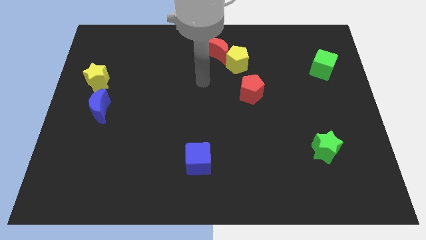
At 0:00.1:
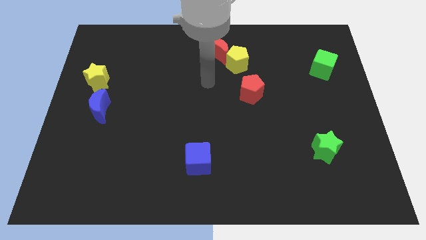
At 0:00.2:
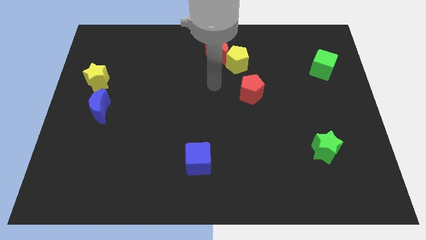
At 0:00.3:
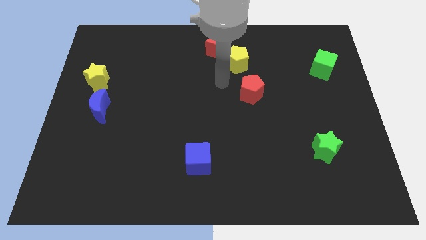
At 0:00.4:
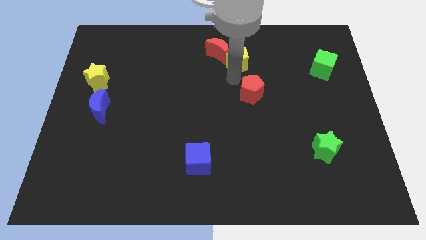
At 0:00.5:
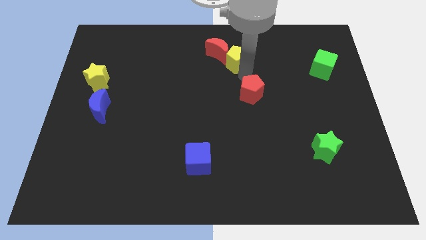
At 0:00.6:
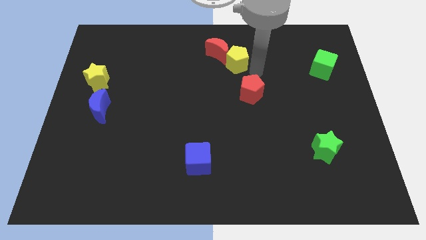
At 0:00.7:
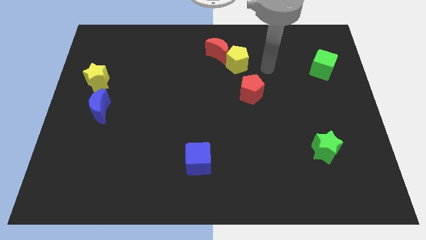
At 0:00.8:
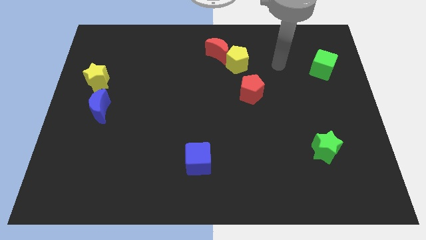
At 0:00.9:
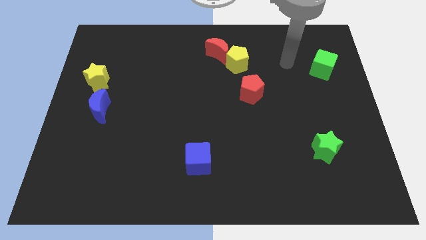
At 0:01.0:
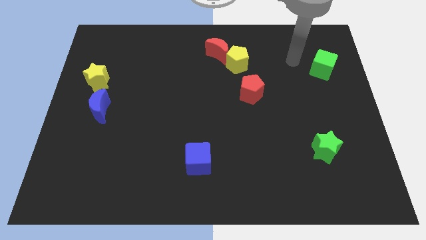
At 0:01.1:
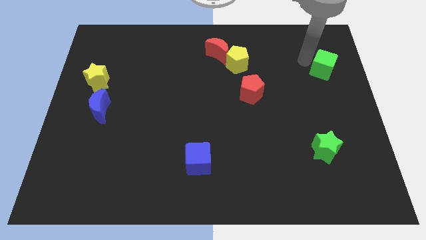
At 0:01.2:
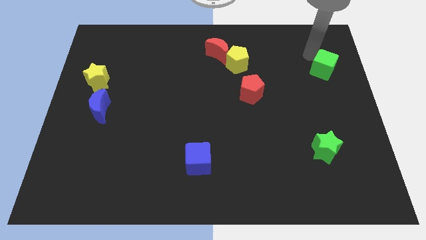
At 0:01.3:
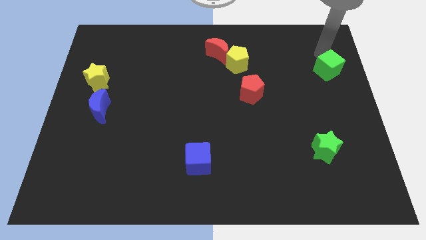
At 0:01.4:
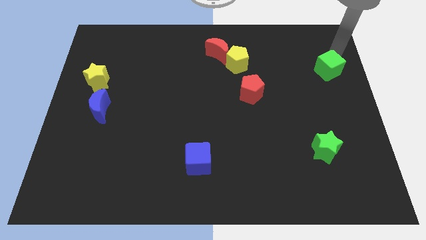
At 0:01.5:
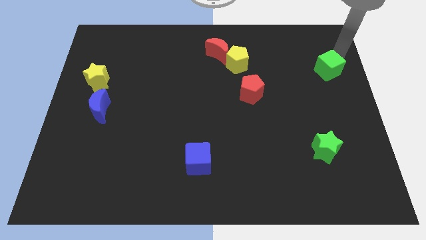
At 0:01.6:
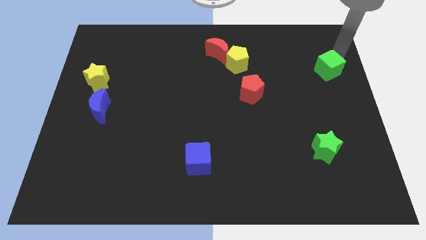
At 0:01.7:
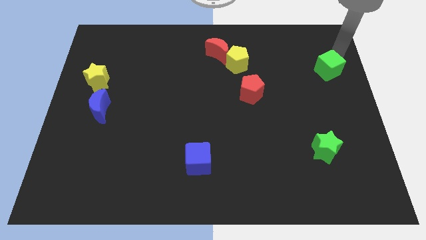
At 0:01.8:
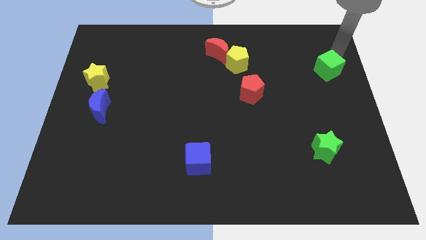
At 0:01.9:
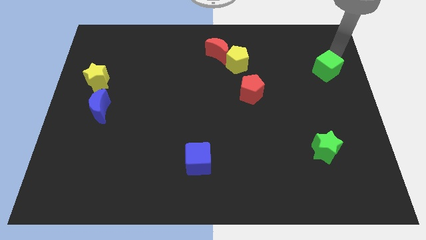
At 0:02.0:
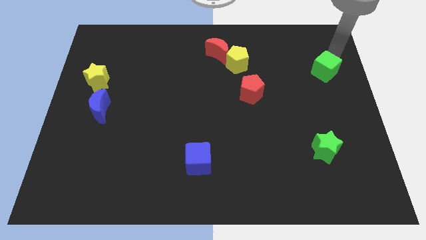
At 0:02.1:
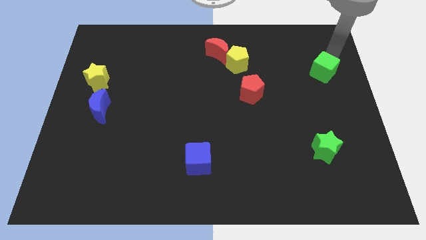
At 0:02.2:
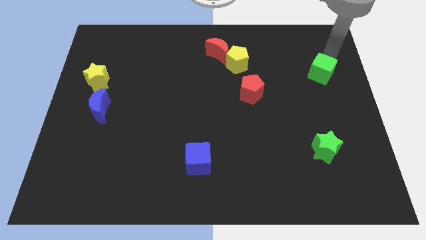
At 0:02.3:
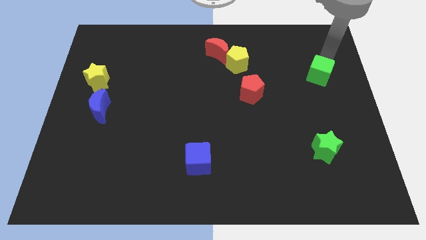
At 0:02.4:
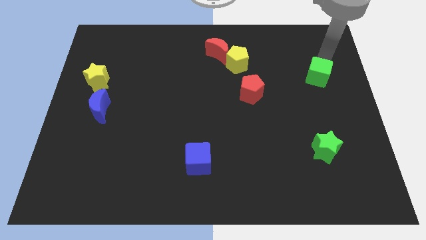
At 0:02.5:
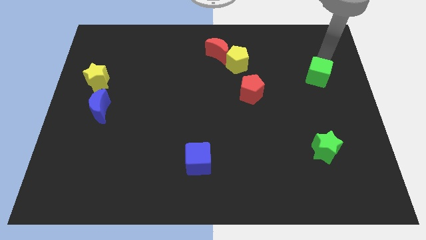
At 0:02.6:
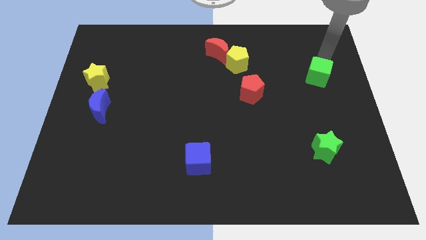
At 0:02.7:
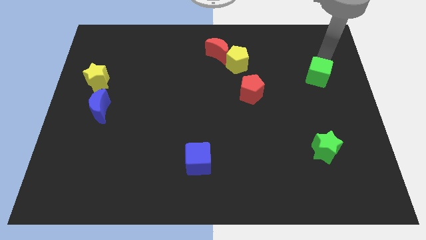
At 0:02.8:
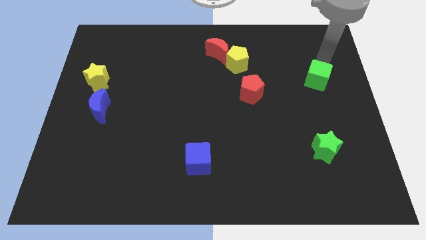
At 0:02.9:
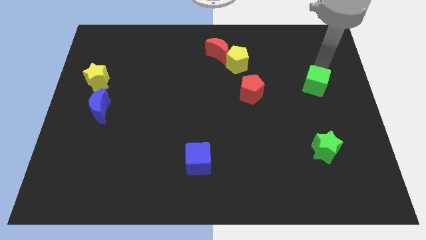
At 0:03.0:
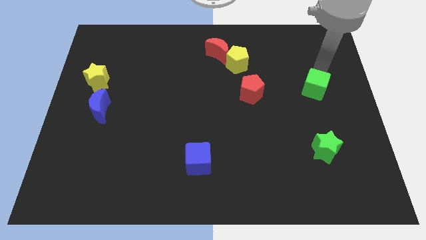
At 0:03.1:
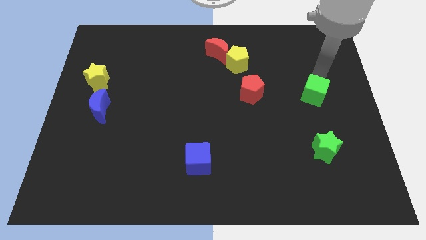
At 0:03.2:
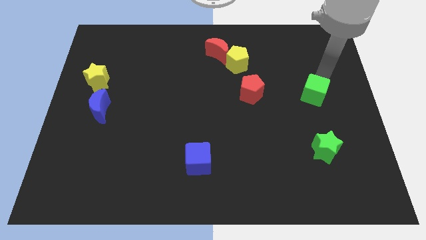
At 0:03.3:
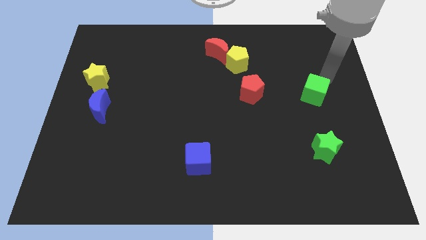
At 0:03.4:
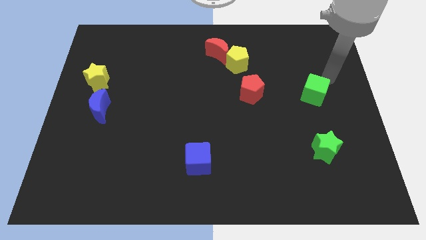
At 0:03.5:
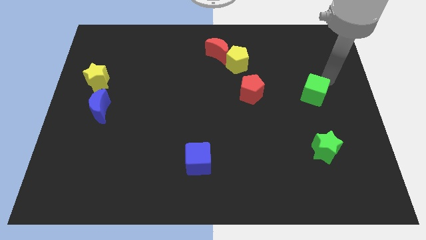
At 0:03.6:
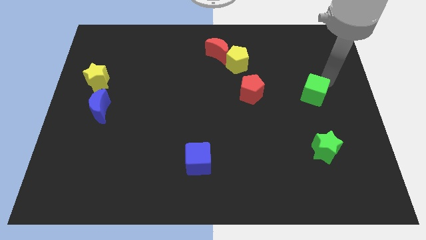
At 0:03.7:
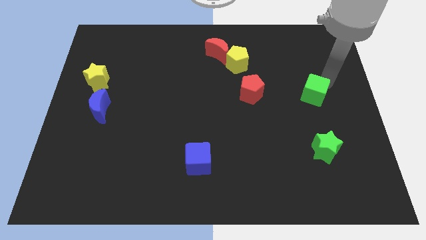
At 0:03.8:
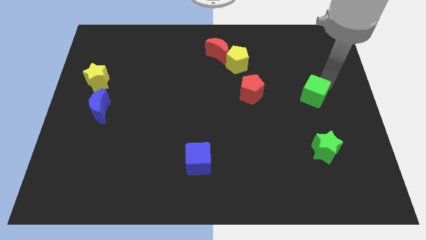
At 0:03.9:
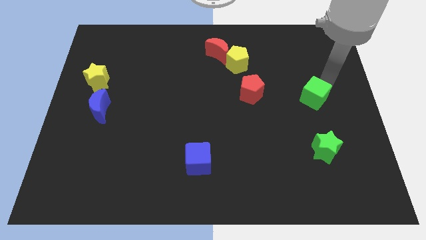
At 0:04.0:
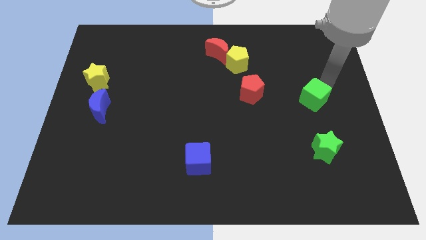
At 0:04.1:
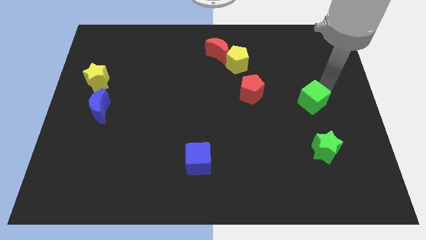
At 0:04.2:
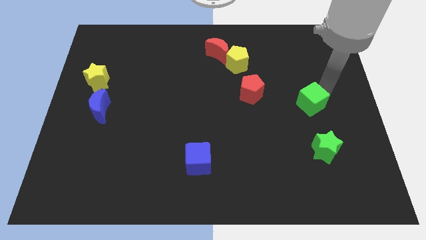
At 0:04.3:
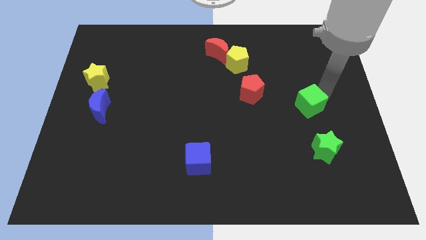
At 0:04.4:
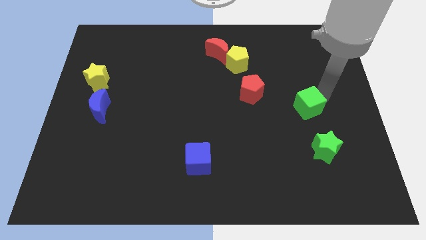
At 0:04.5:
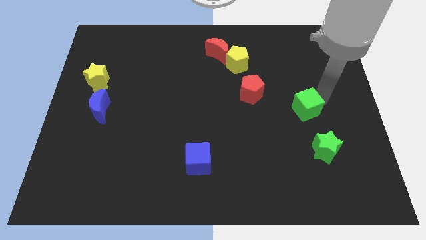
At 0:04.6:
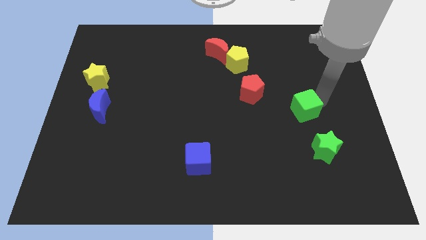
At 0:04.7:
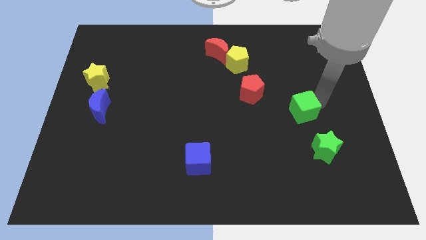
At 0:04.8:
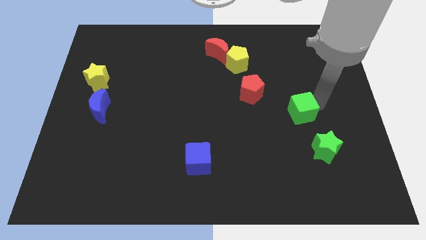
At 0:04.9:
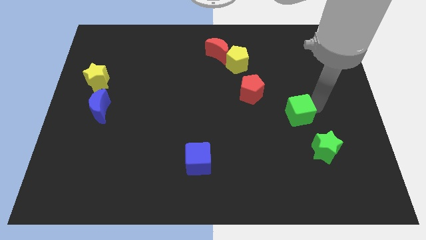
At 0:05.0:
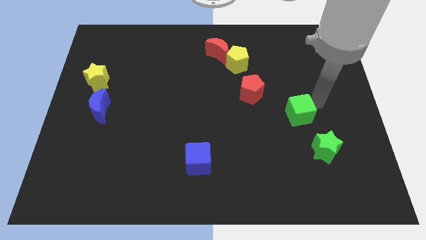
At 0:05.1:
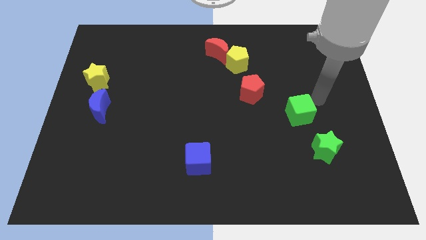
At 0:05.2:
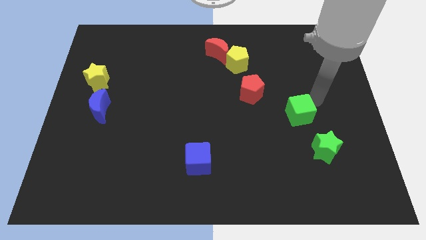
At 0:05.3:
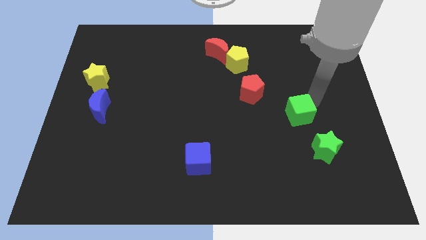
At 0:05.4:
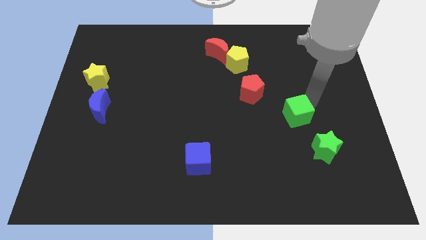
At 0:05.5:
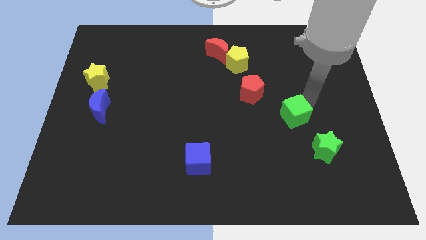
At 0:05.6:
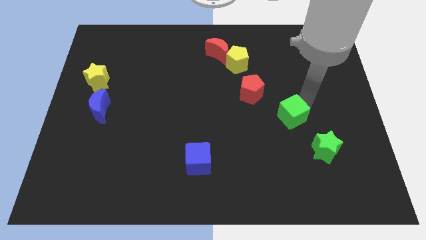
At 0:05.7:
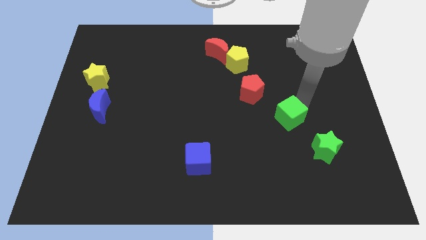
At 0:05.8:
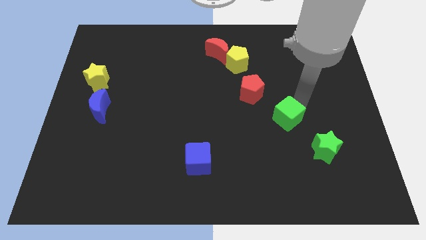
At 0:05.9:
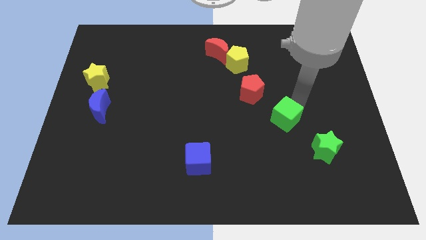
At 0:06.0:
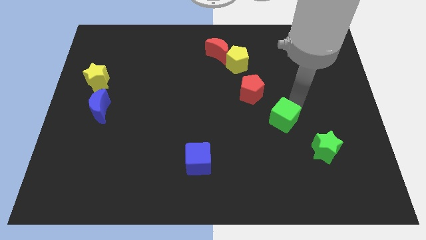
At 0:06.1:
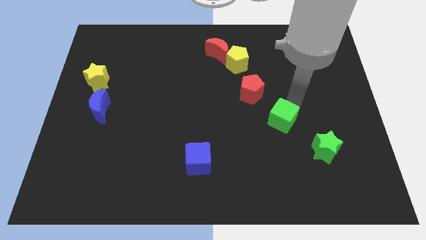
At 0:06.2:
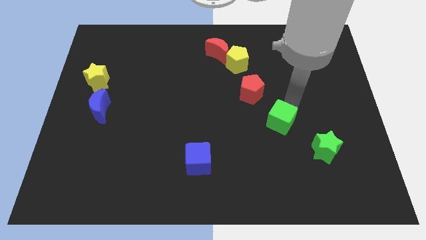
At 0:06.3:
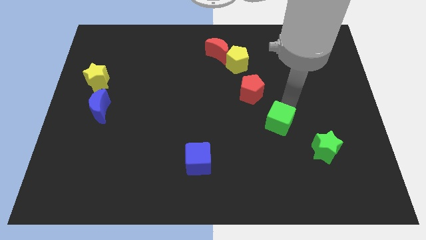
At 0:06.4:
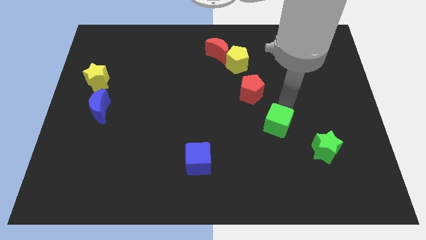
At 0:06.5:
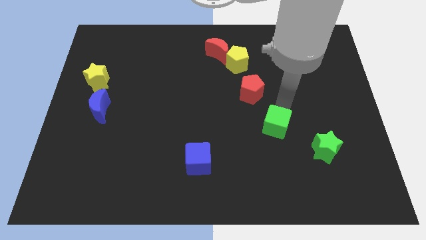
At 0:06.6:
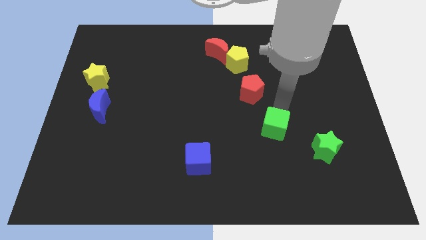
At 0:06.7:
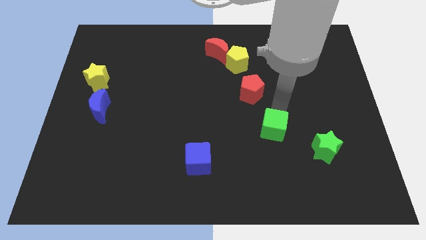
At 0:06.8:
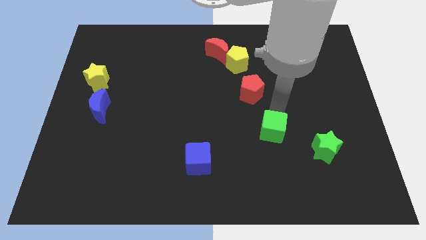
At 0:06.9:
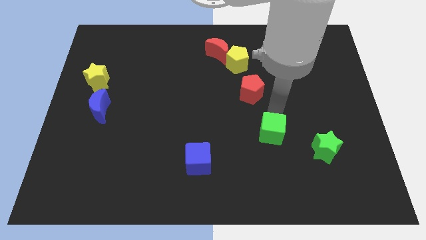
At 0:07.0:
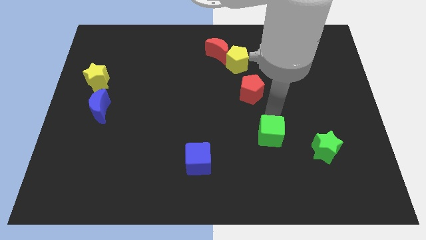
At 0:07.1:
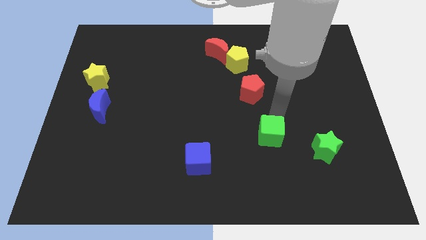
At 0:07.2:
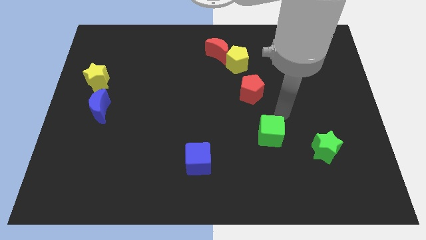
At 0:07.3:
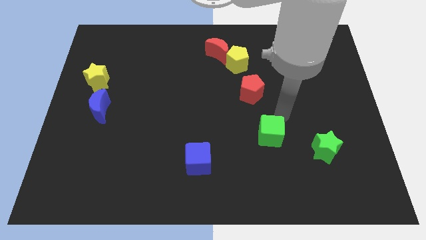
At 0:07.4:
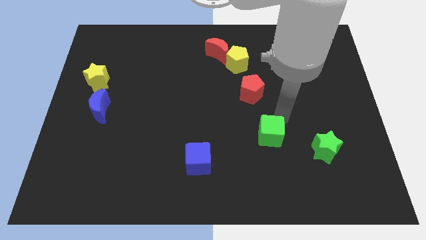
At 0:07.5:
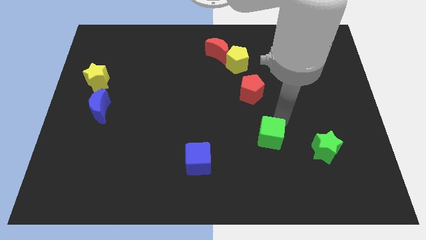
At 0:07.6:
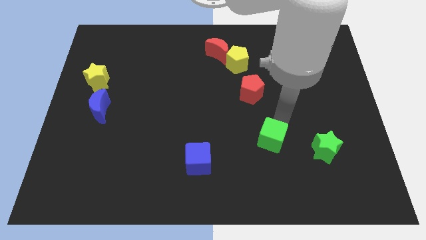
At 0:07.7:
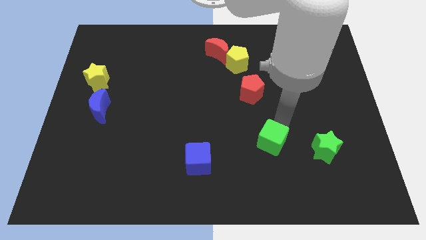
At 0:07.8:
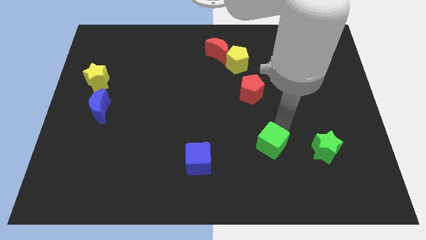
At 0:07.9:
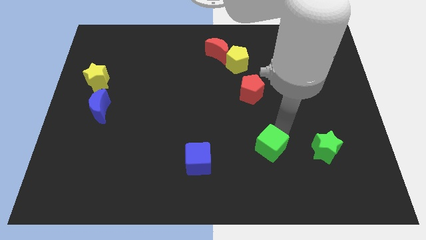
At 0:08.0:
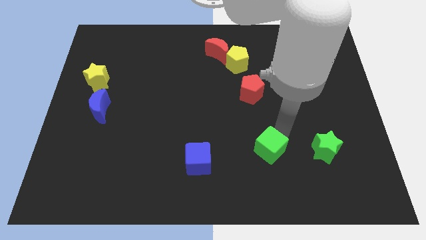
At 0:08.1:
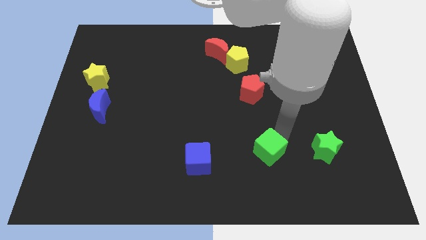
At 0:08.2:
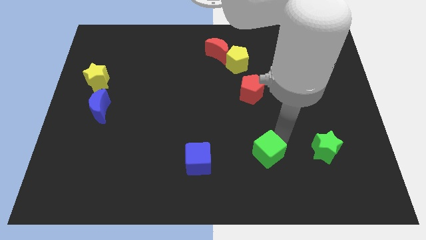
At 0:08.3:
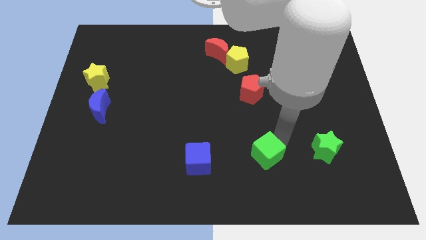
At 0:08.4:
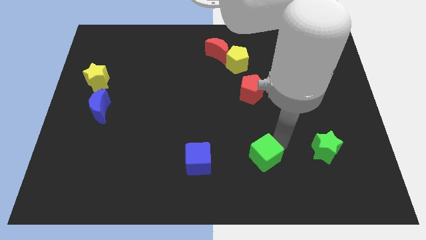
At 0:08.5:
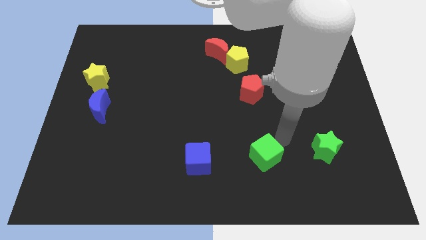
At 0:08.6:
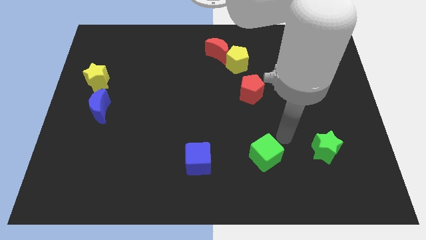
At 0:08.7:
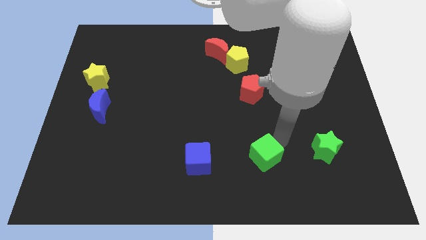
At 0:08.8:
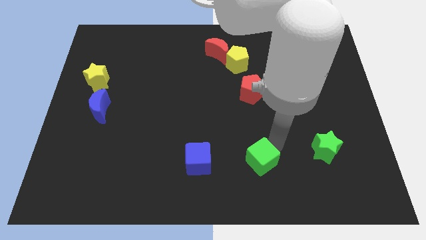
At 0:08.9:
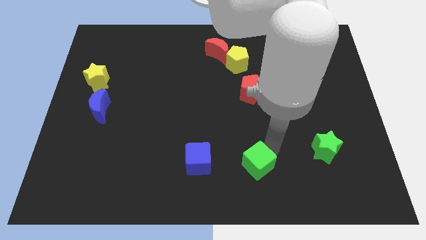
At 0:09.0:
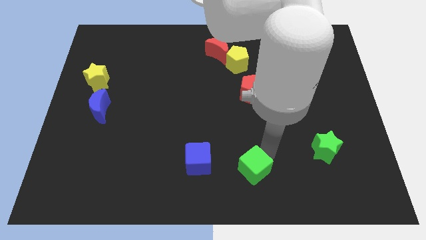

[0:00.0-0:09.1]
move the green cube to the bottom side
